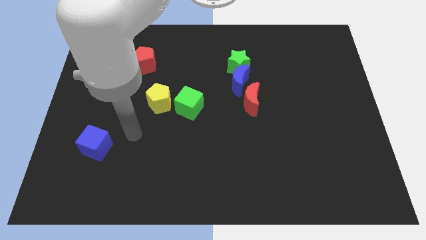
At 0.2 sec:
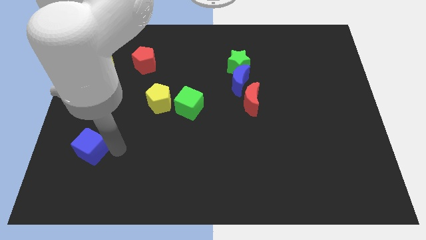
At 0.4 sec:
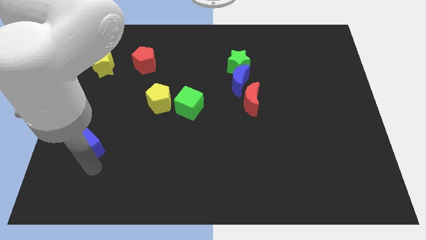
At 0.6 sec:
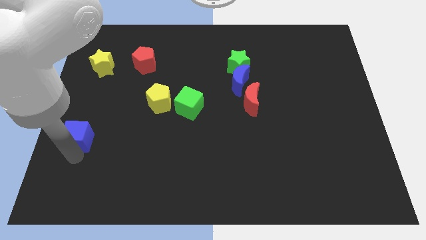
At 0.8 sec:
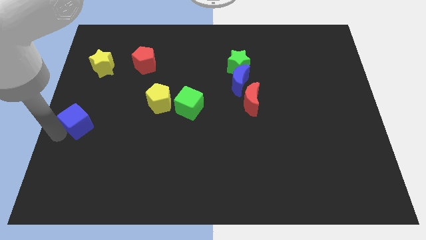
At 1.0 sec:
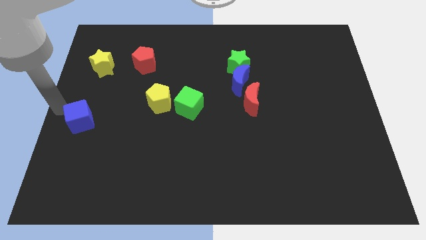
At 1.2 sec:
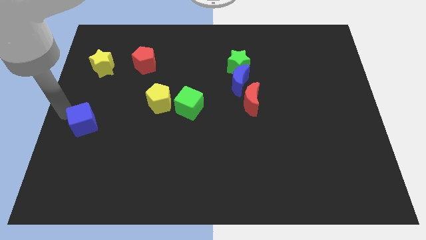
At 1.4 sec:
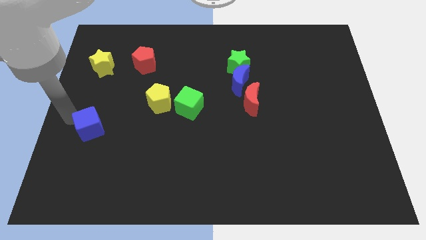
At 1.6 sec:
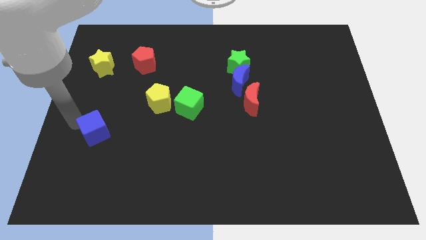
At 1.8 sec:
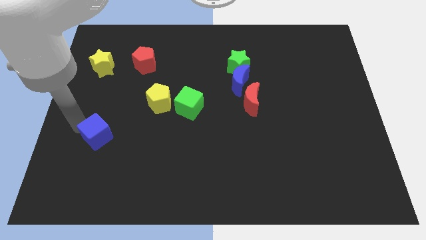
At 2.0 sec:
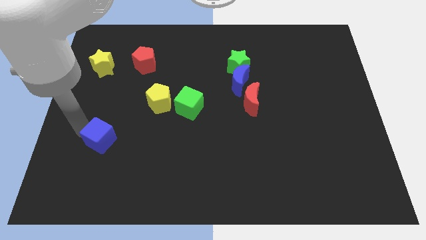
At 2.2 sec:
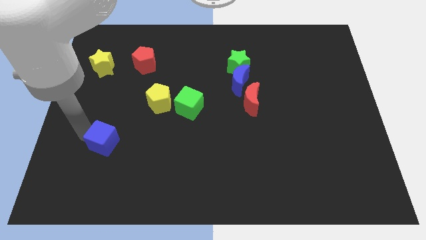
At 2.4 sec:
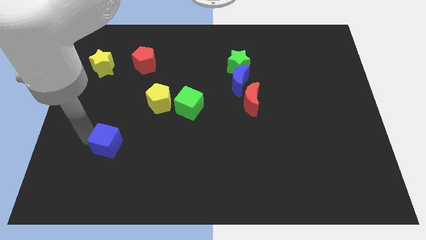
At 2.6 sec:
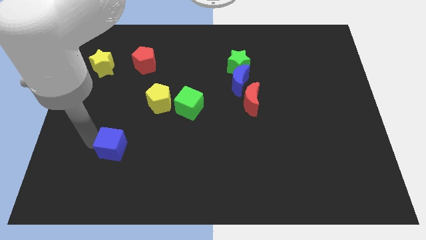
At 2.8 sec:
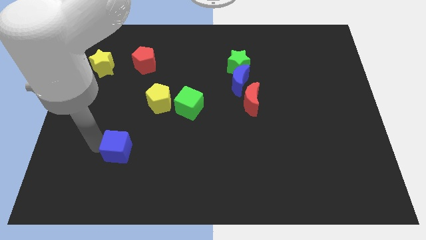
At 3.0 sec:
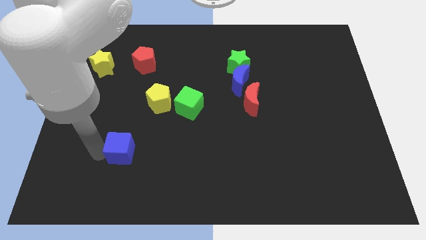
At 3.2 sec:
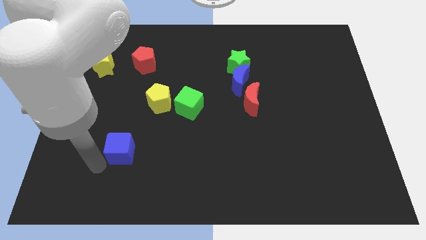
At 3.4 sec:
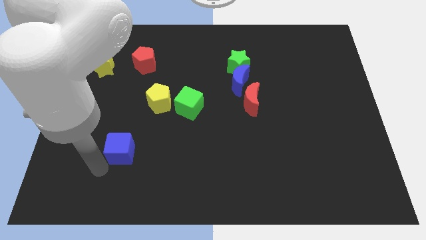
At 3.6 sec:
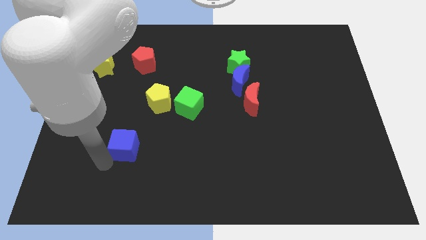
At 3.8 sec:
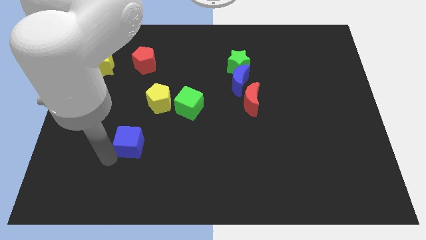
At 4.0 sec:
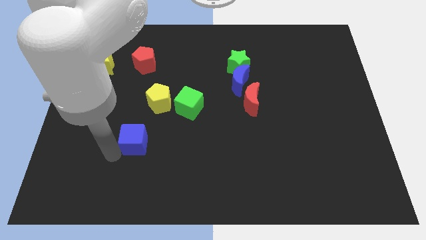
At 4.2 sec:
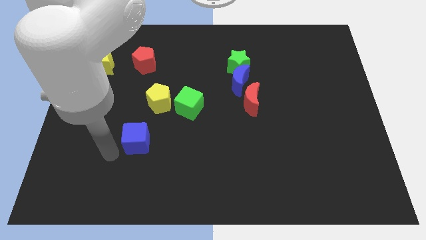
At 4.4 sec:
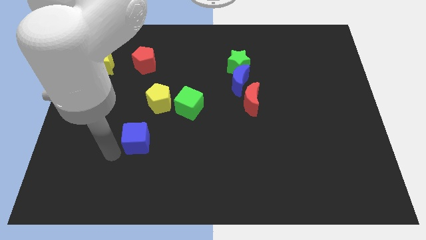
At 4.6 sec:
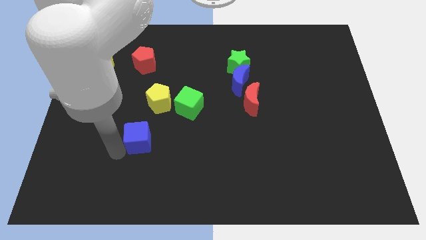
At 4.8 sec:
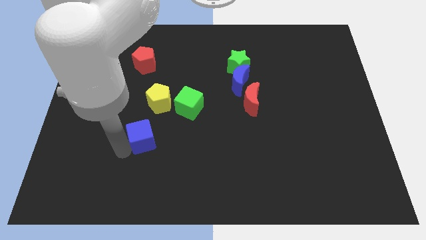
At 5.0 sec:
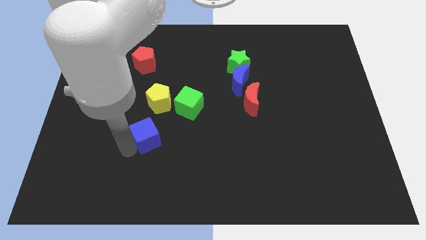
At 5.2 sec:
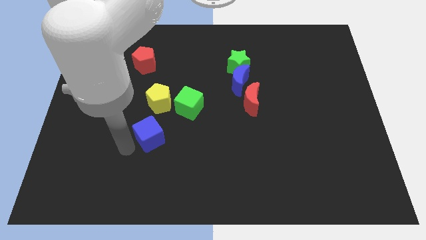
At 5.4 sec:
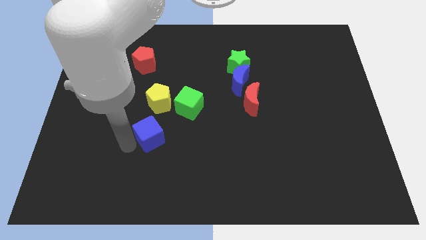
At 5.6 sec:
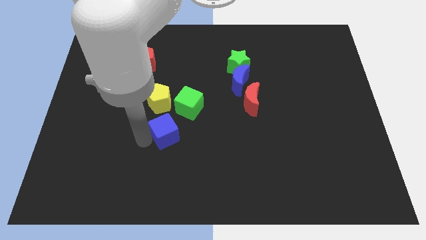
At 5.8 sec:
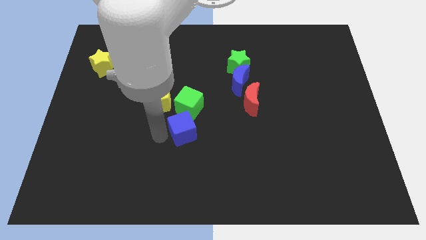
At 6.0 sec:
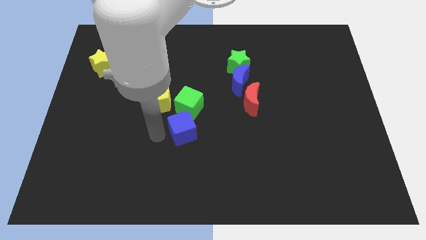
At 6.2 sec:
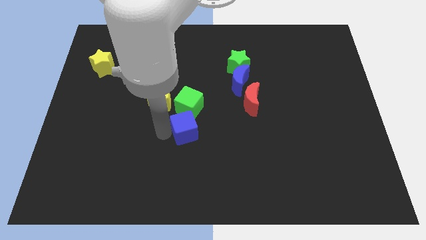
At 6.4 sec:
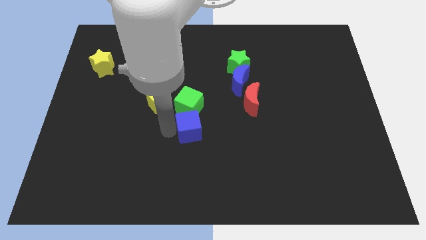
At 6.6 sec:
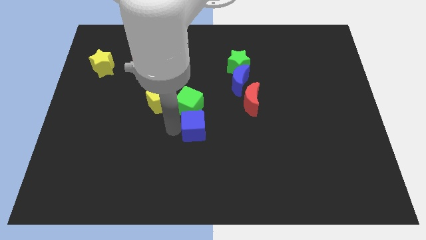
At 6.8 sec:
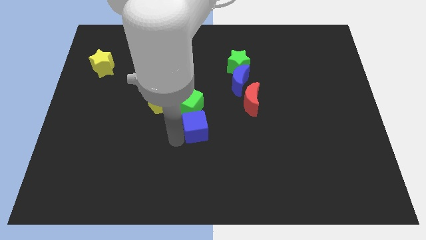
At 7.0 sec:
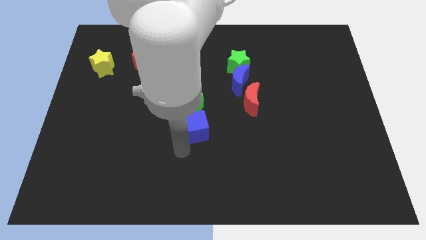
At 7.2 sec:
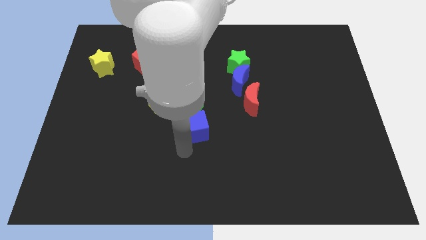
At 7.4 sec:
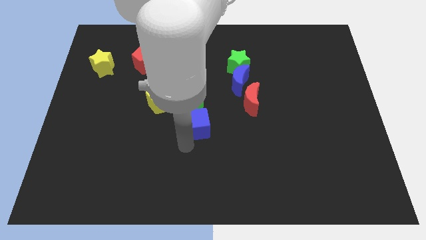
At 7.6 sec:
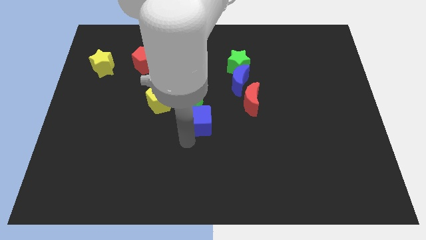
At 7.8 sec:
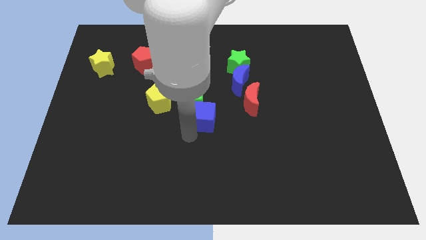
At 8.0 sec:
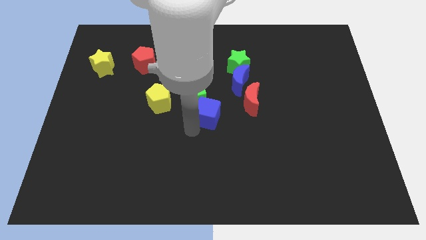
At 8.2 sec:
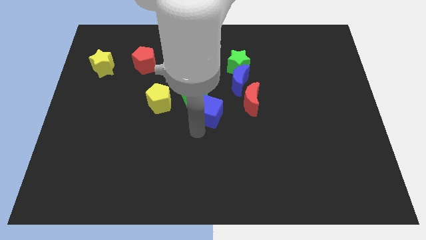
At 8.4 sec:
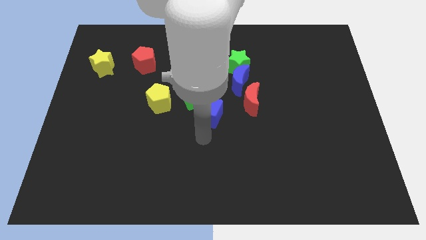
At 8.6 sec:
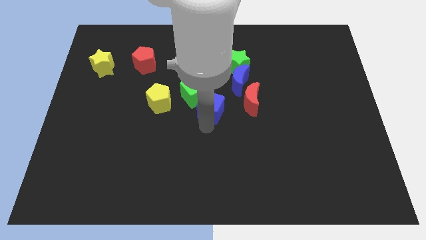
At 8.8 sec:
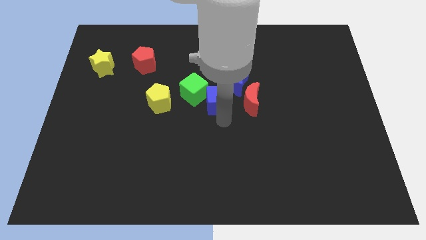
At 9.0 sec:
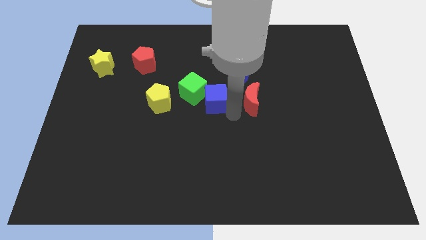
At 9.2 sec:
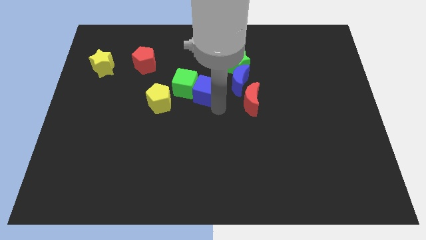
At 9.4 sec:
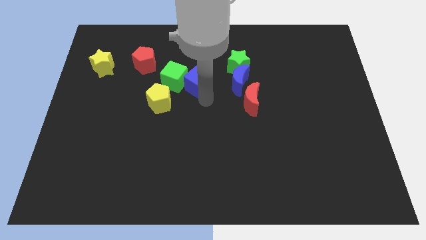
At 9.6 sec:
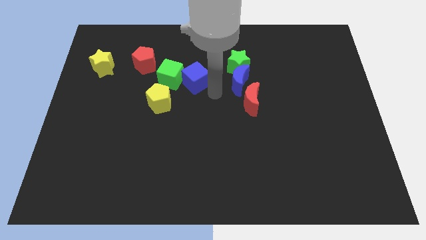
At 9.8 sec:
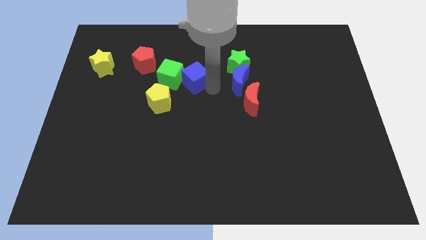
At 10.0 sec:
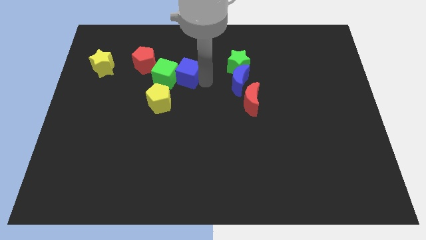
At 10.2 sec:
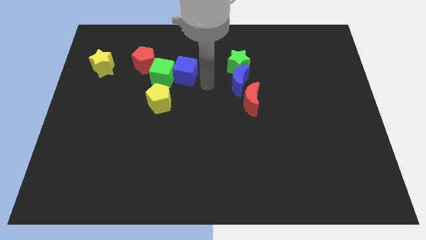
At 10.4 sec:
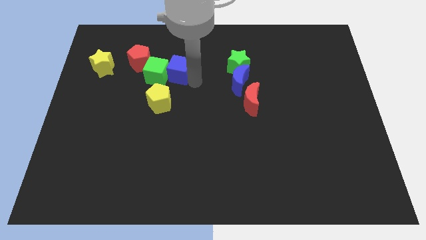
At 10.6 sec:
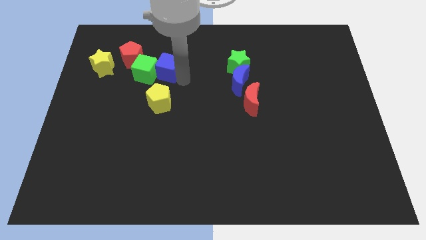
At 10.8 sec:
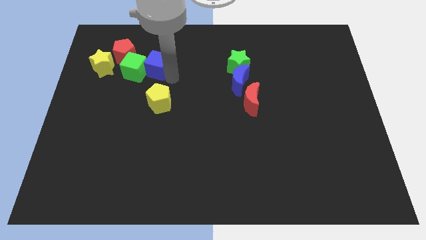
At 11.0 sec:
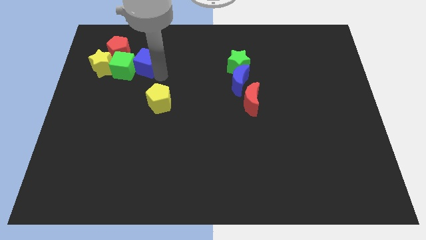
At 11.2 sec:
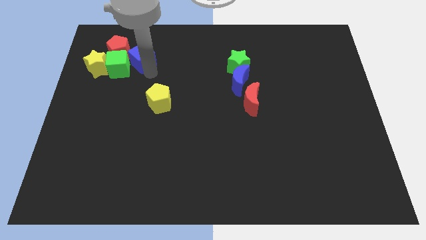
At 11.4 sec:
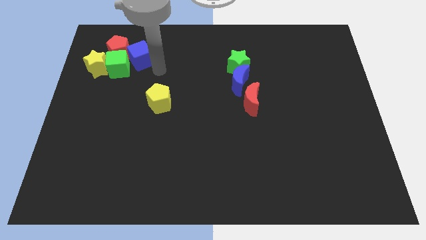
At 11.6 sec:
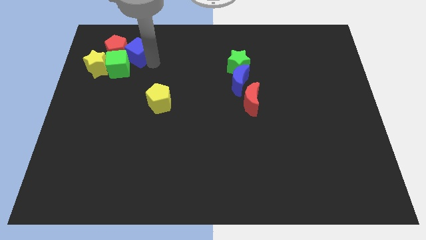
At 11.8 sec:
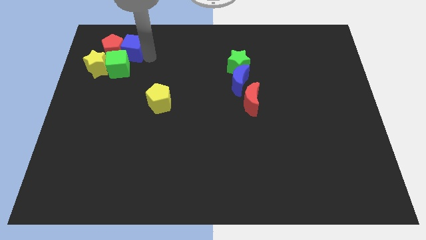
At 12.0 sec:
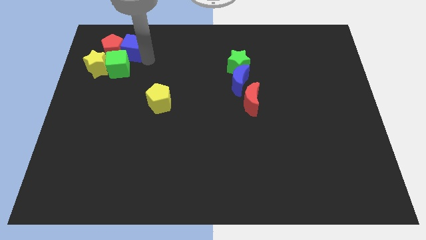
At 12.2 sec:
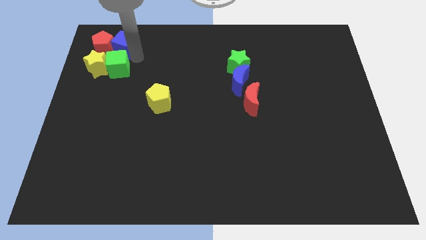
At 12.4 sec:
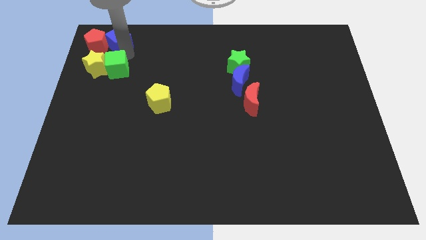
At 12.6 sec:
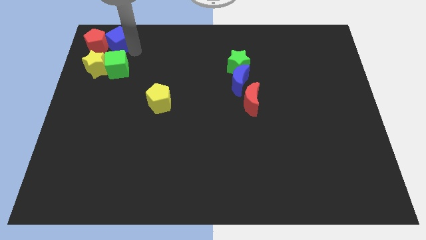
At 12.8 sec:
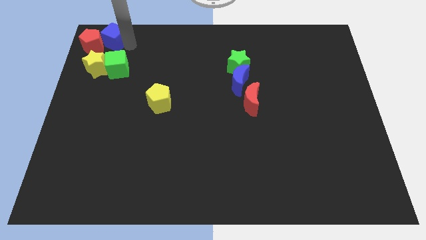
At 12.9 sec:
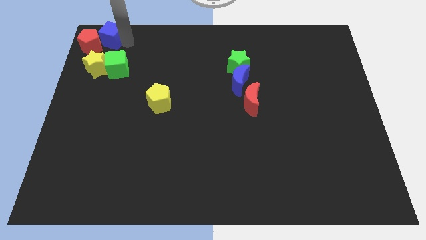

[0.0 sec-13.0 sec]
slide the blue cube to the top left of the board

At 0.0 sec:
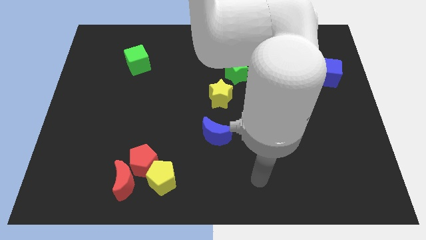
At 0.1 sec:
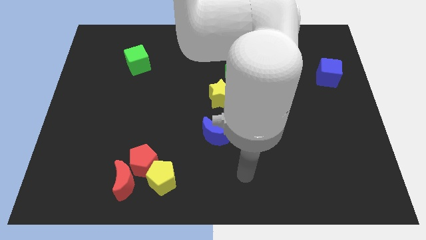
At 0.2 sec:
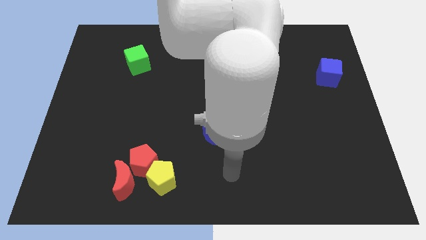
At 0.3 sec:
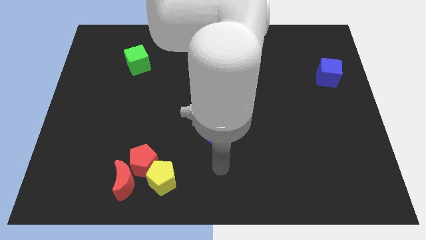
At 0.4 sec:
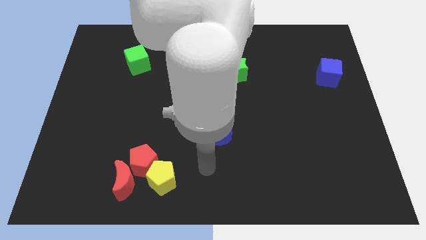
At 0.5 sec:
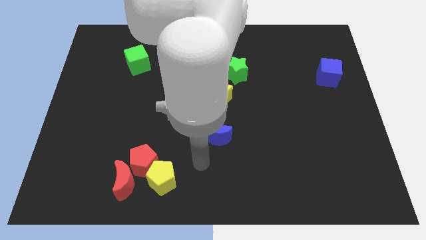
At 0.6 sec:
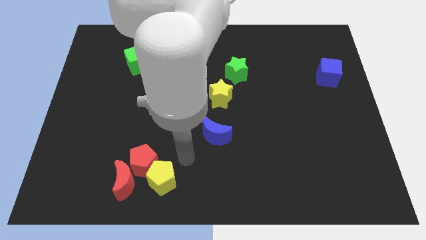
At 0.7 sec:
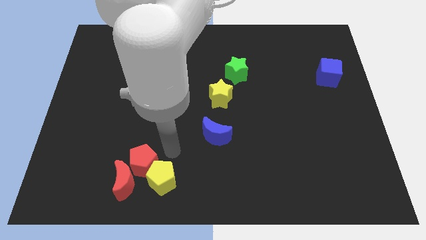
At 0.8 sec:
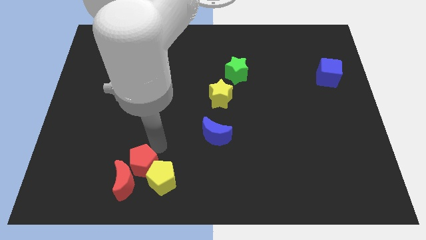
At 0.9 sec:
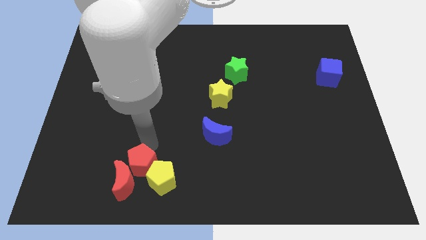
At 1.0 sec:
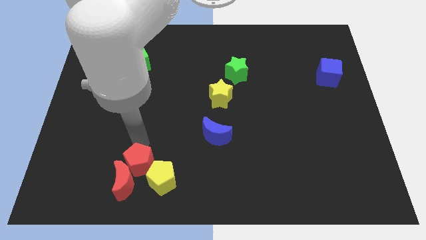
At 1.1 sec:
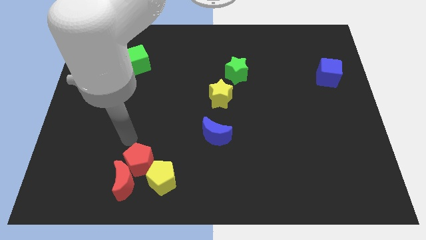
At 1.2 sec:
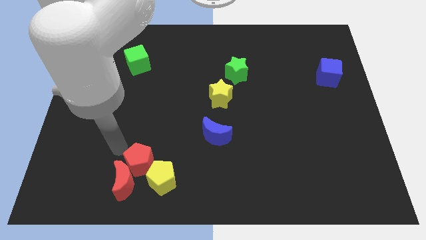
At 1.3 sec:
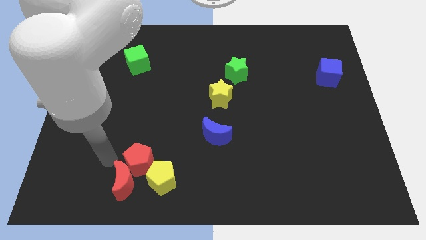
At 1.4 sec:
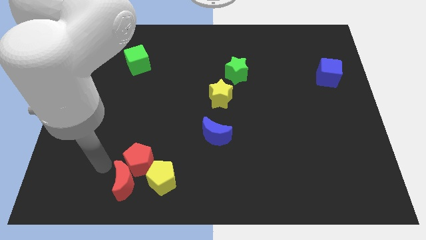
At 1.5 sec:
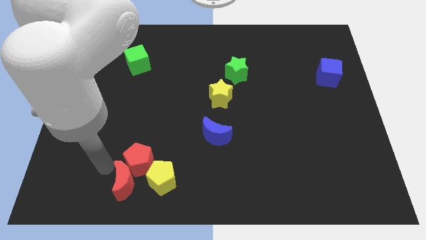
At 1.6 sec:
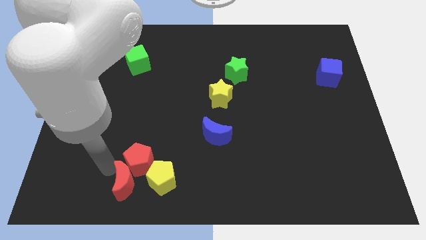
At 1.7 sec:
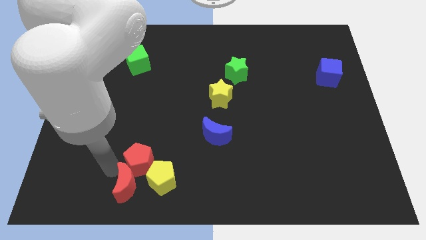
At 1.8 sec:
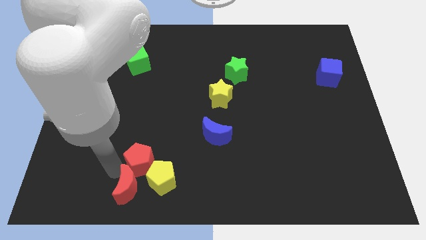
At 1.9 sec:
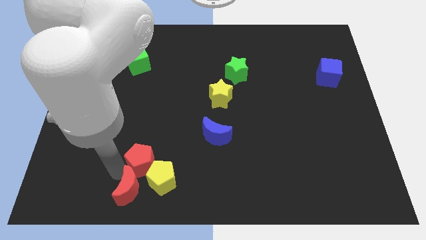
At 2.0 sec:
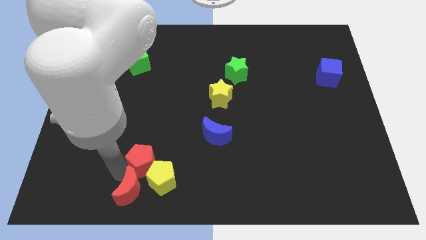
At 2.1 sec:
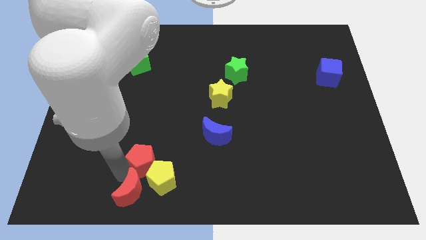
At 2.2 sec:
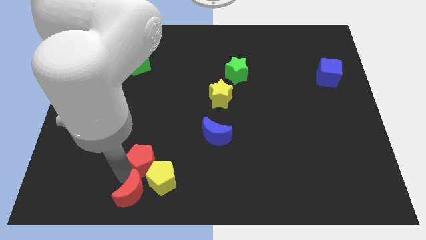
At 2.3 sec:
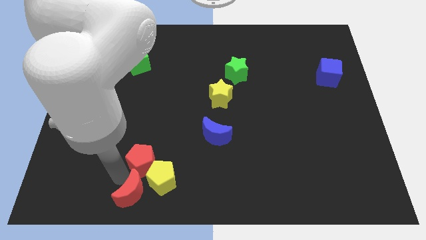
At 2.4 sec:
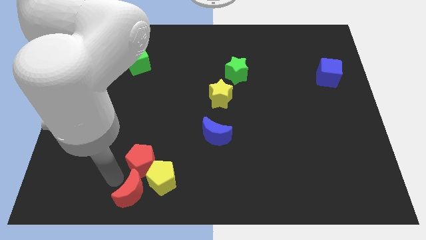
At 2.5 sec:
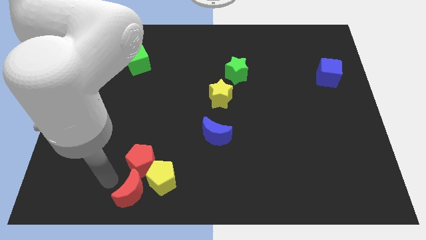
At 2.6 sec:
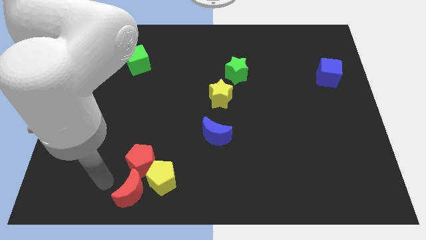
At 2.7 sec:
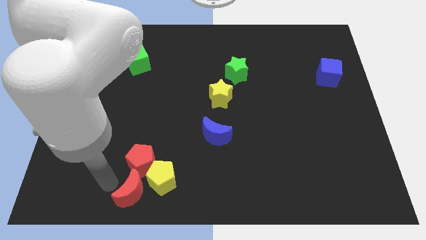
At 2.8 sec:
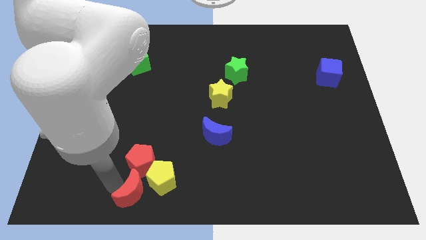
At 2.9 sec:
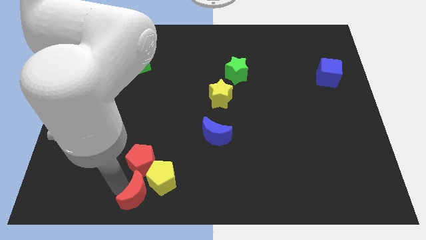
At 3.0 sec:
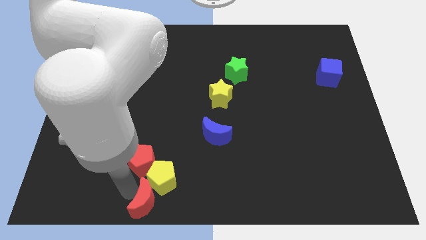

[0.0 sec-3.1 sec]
slide the red moon to the bottom
